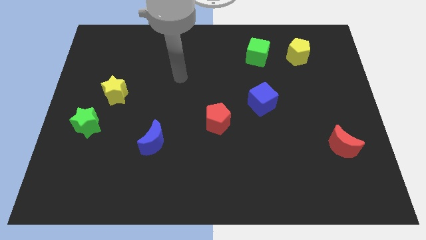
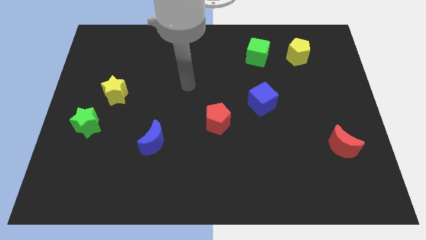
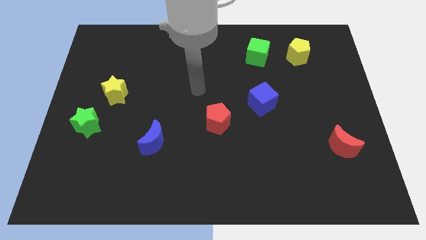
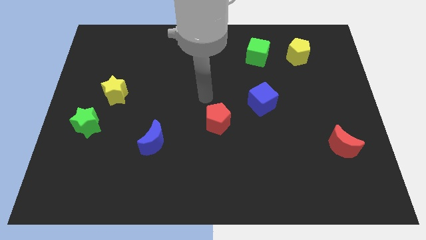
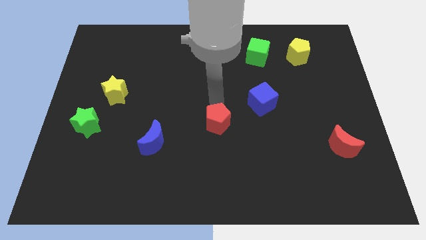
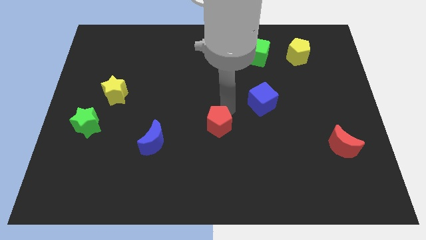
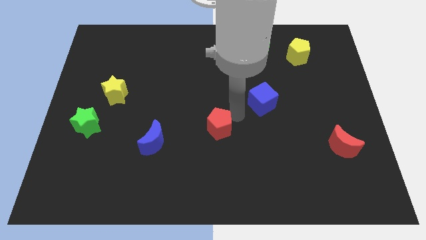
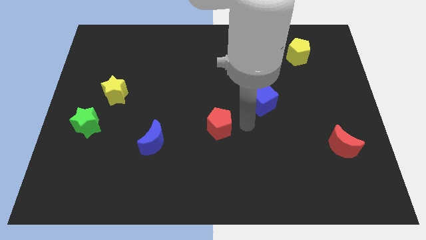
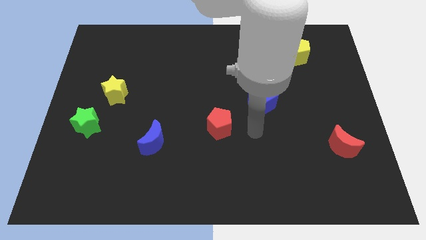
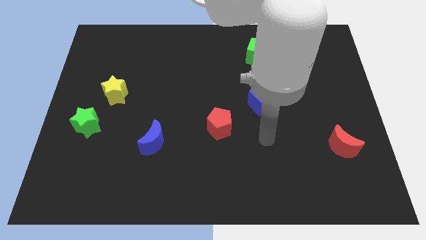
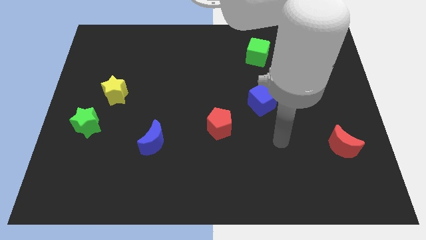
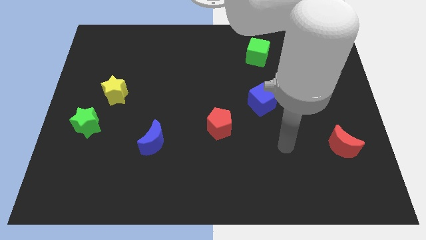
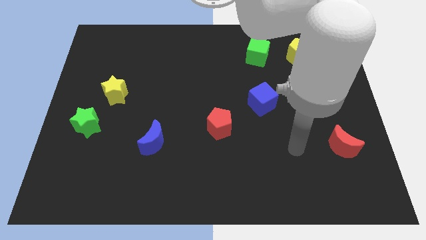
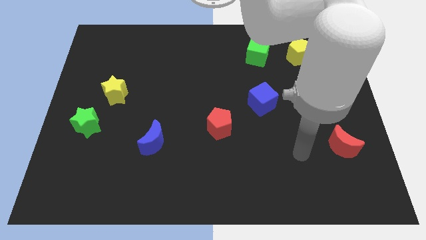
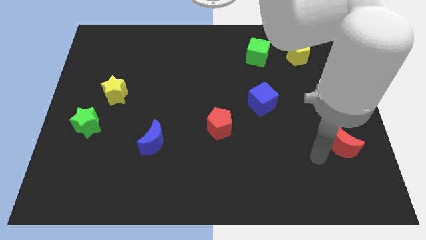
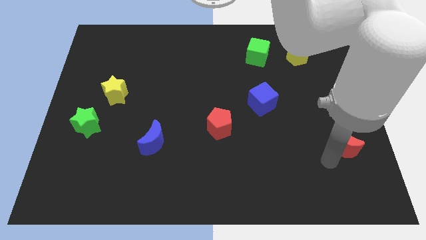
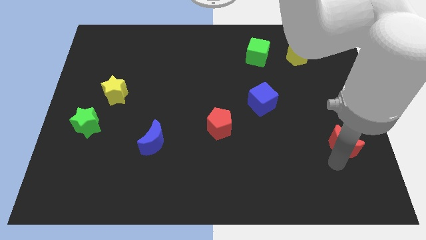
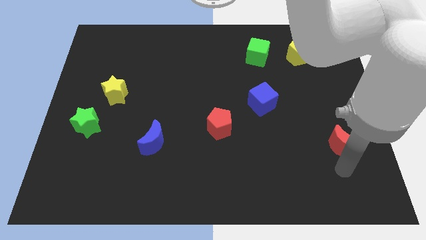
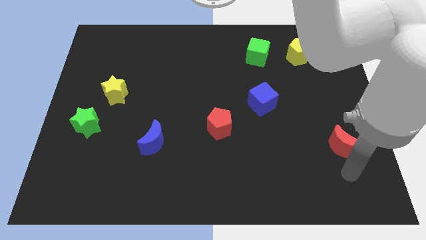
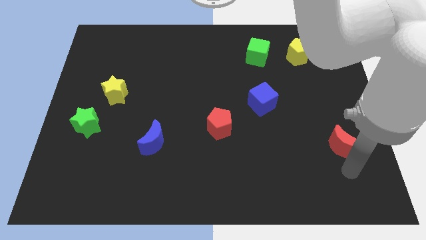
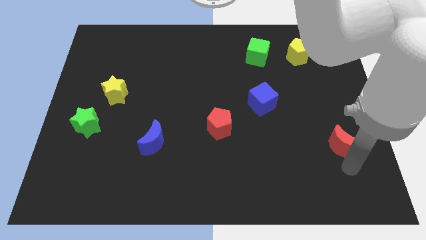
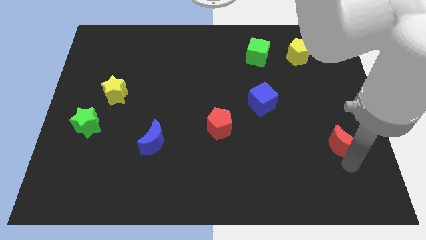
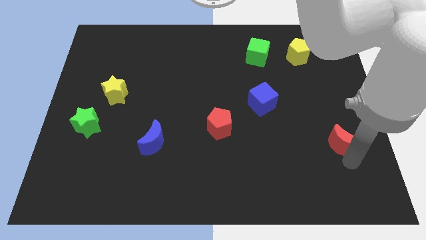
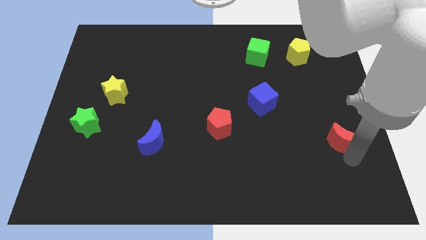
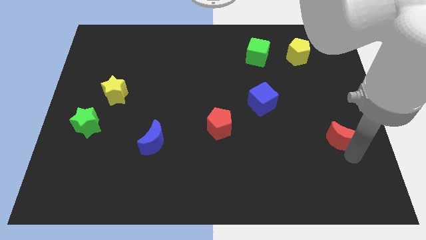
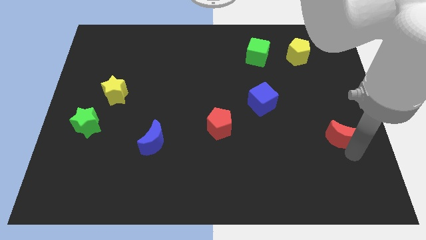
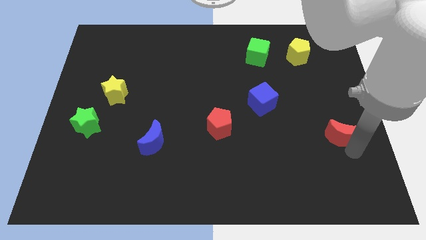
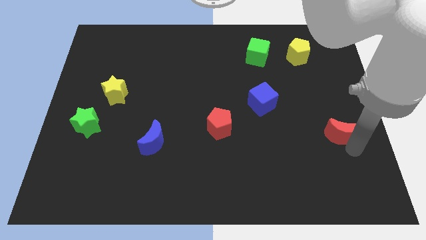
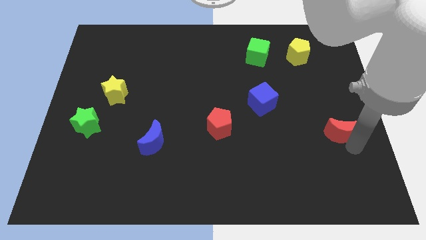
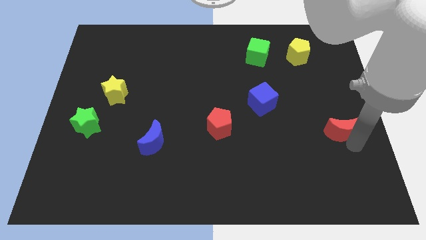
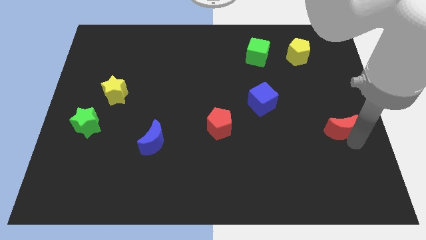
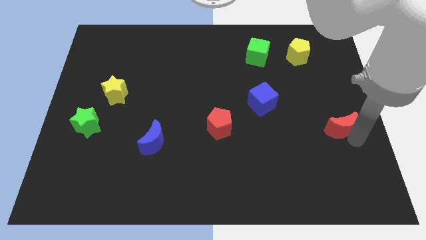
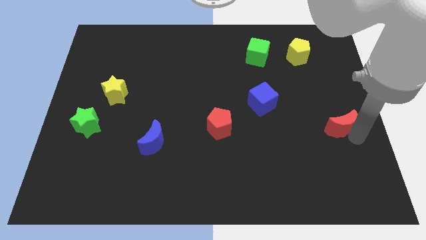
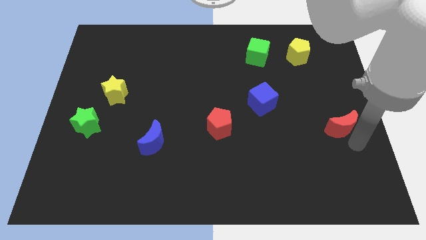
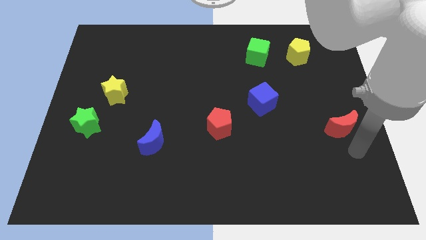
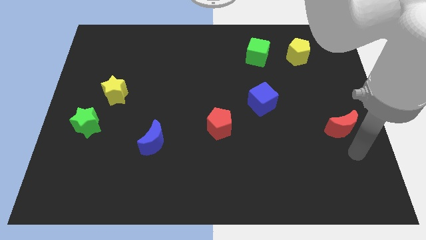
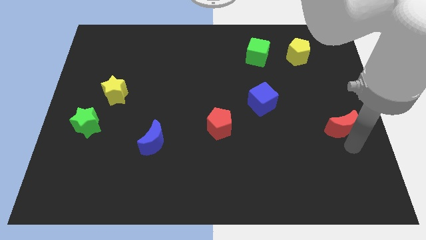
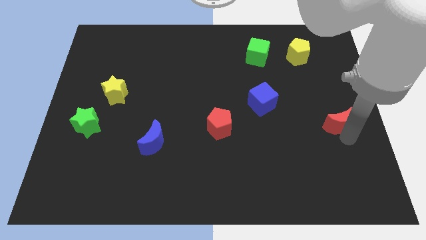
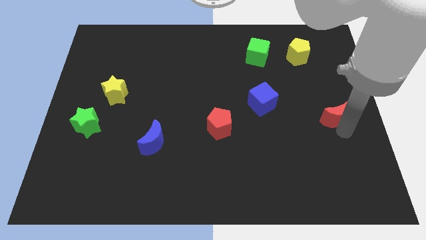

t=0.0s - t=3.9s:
move the red moon upwards a little bit

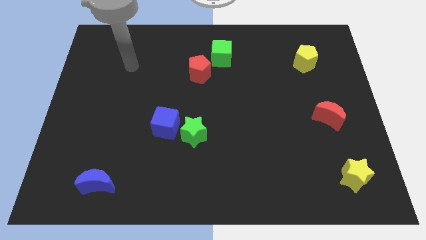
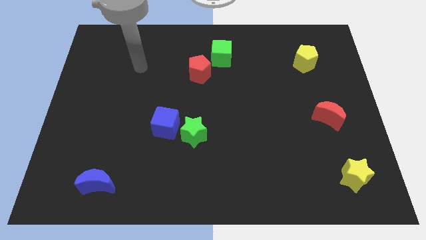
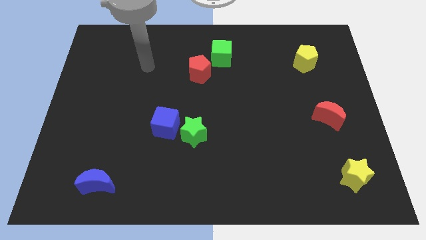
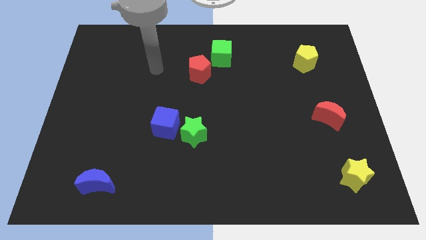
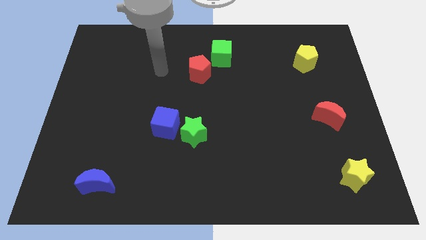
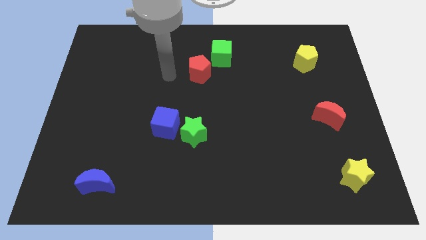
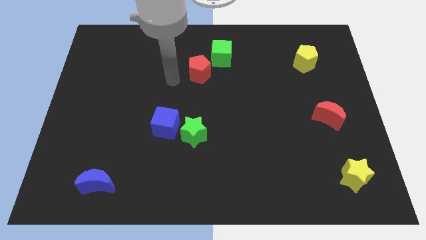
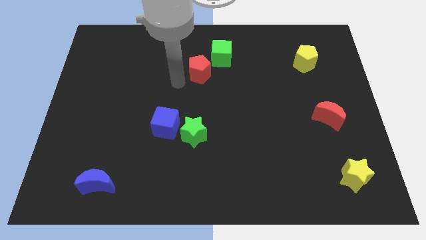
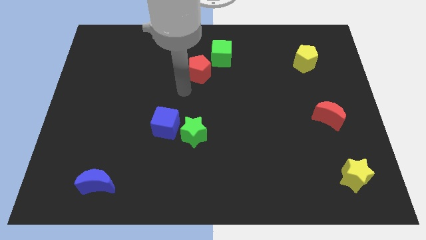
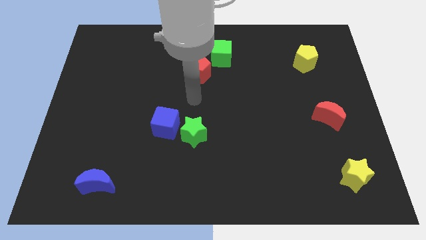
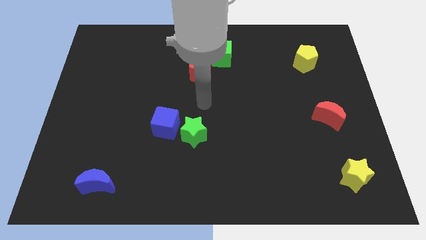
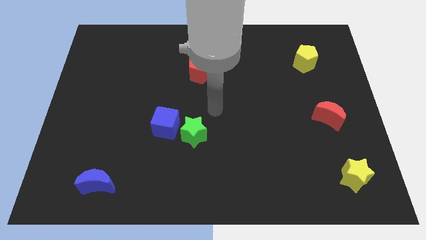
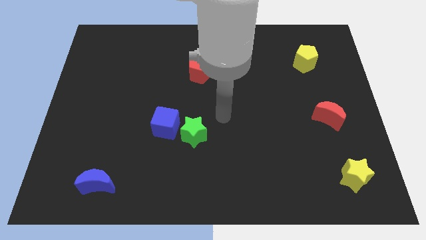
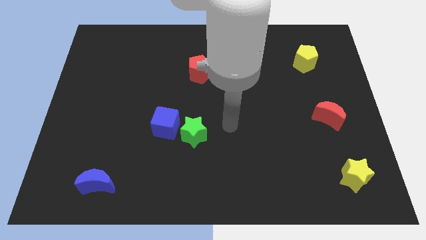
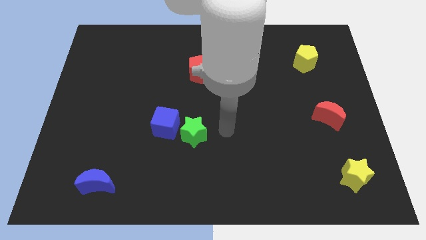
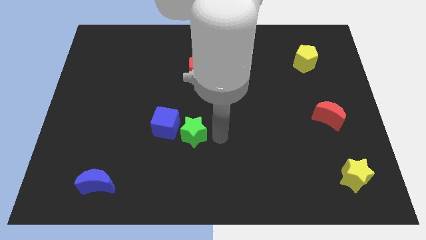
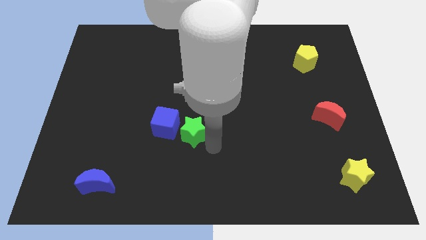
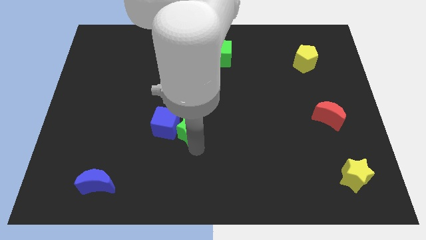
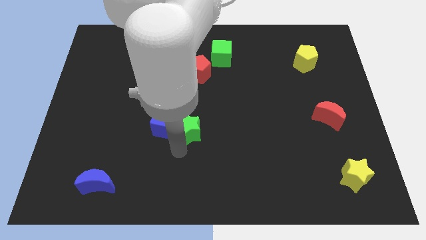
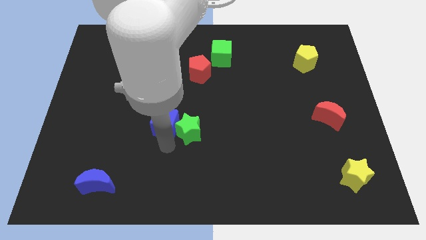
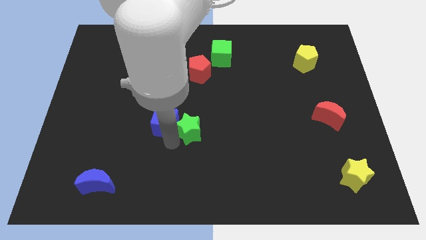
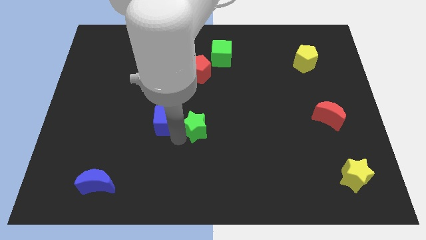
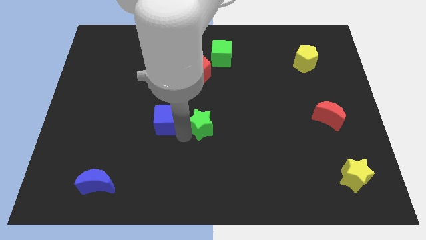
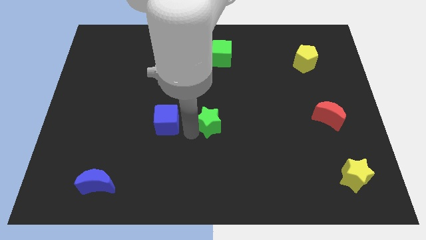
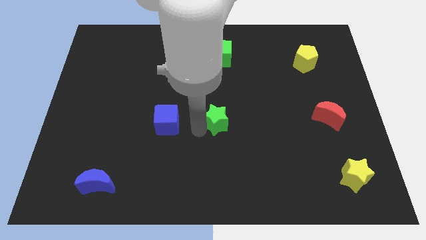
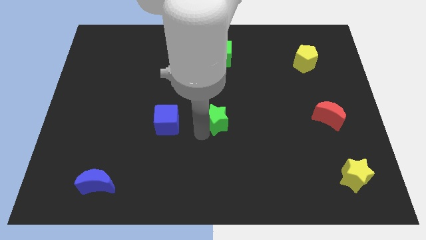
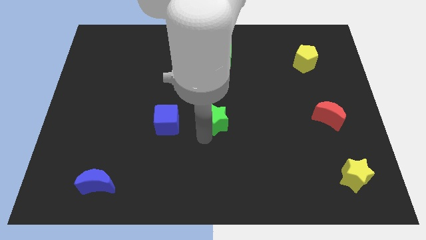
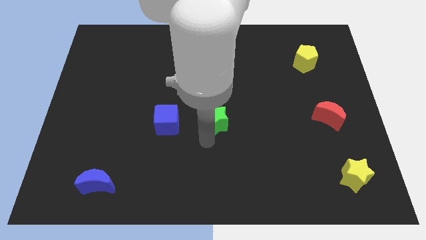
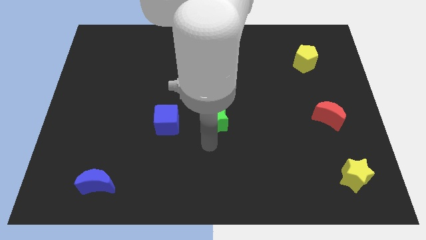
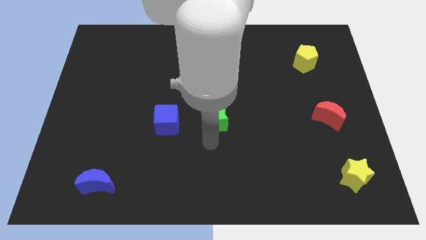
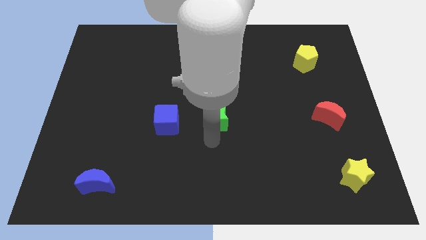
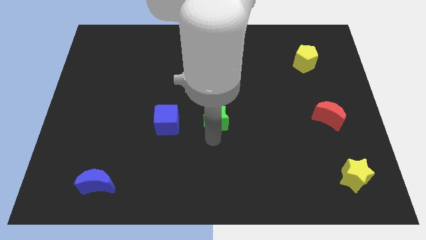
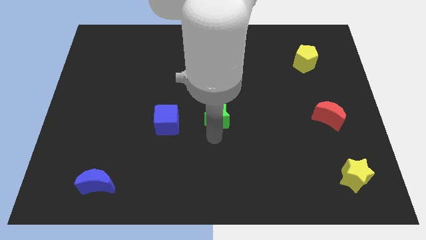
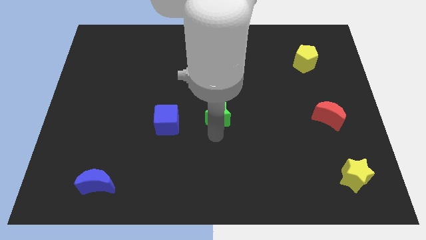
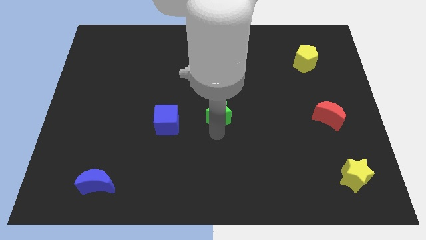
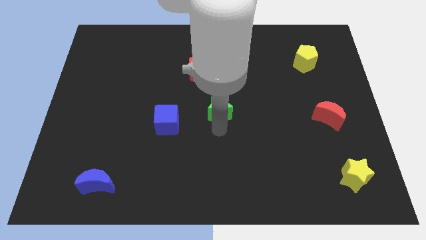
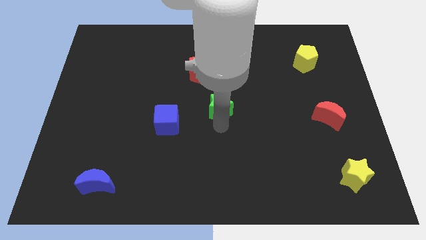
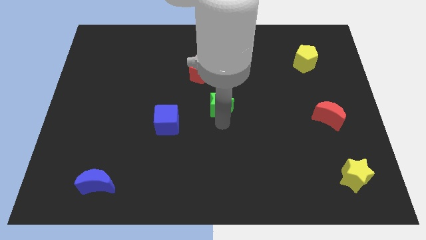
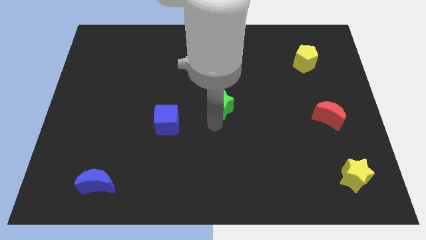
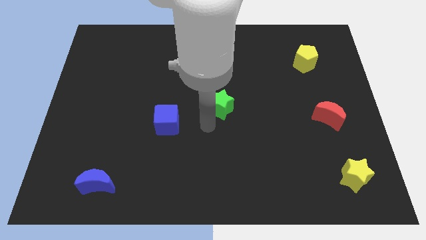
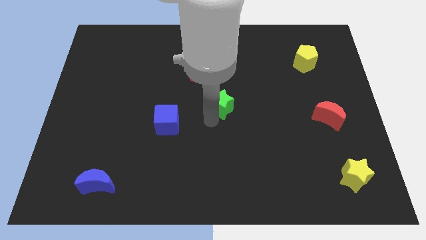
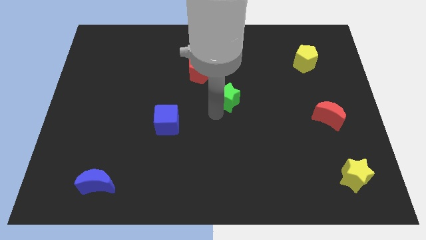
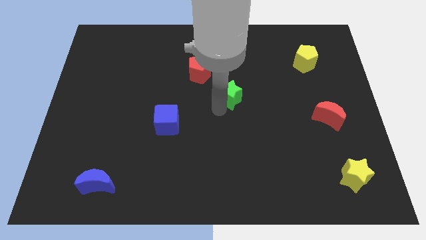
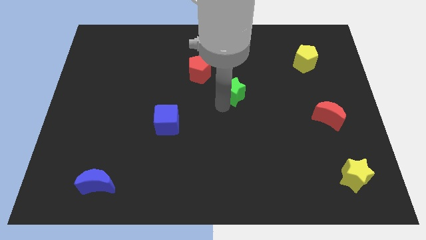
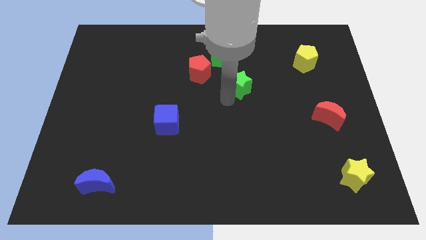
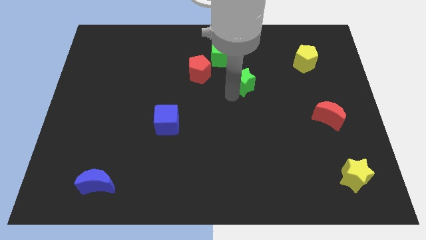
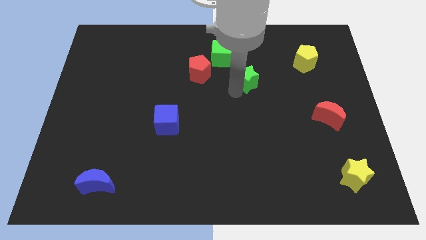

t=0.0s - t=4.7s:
move the green star upwards and then right
